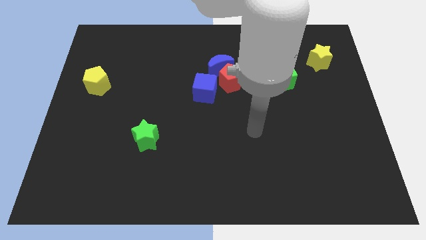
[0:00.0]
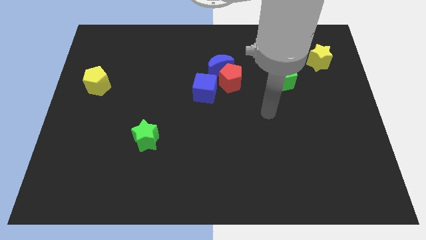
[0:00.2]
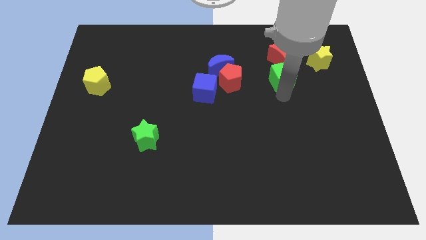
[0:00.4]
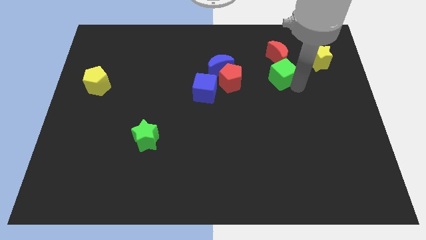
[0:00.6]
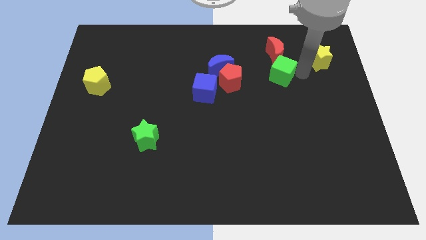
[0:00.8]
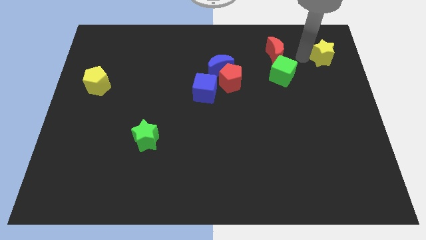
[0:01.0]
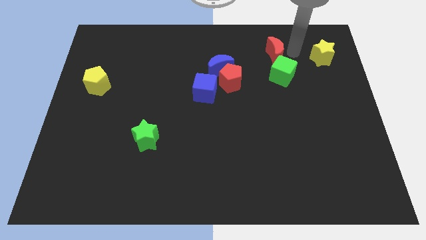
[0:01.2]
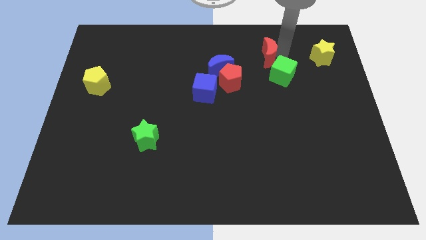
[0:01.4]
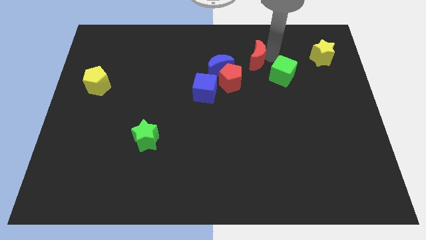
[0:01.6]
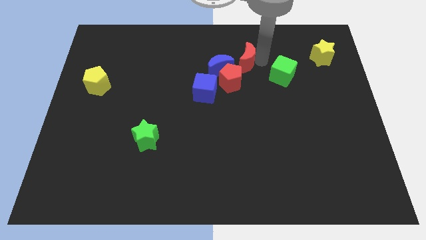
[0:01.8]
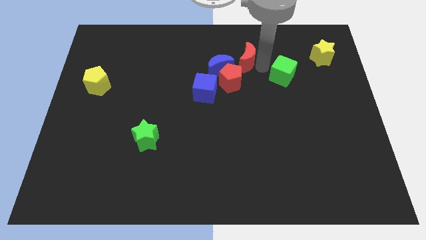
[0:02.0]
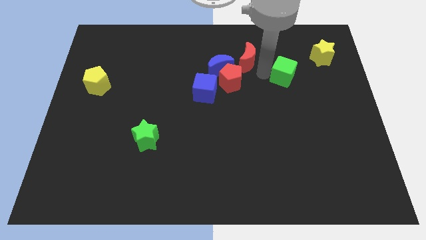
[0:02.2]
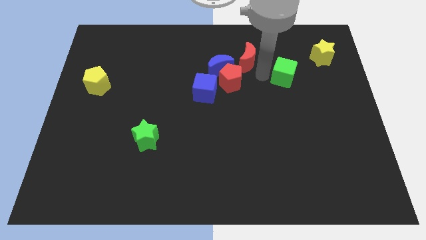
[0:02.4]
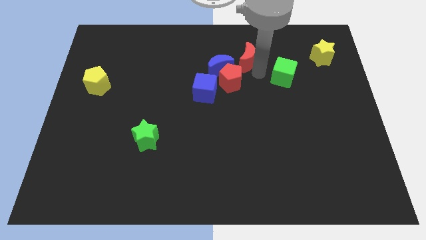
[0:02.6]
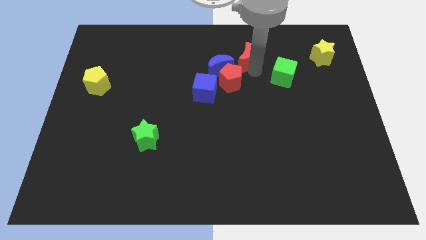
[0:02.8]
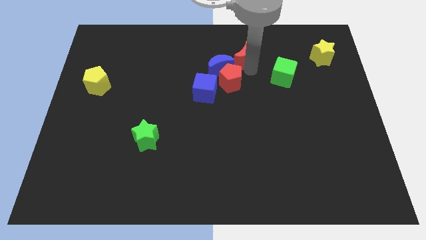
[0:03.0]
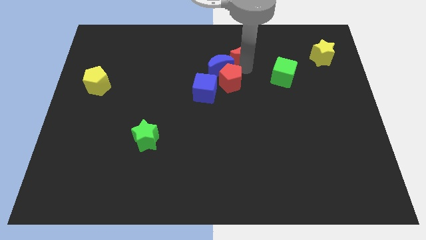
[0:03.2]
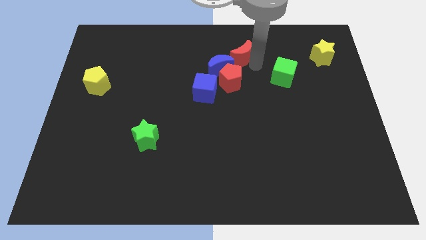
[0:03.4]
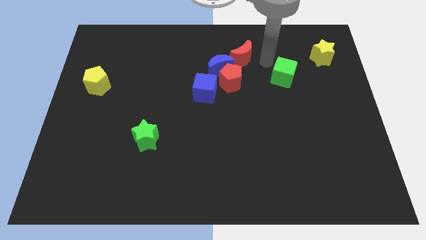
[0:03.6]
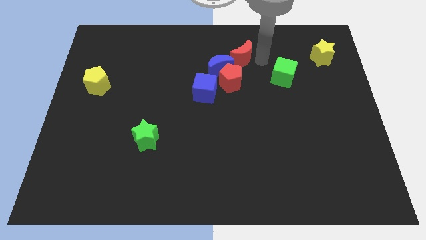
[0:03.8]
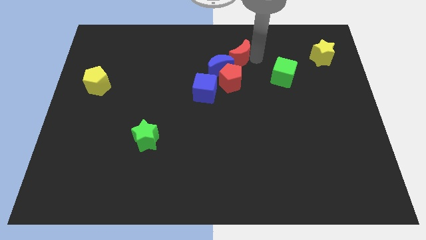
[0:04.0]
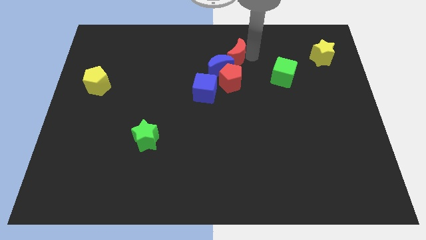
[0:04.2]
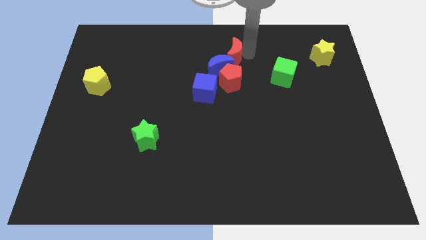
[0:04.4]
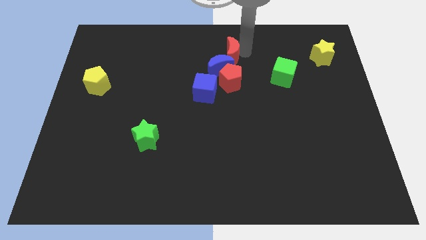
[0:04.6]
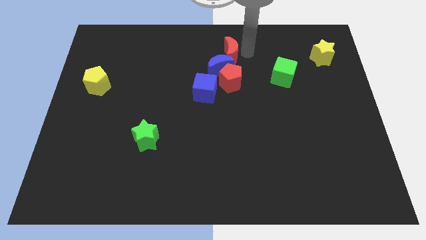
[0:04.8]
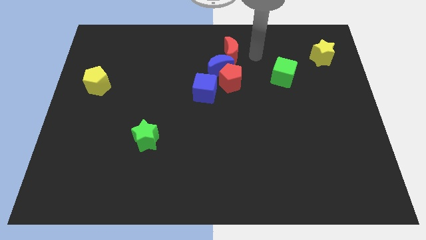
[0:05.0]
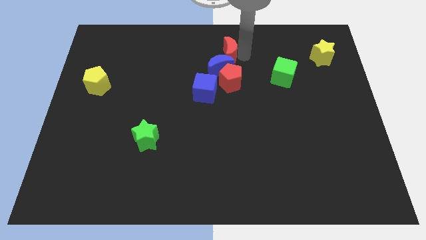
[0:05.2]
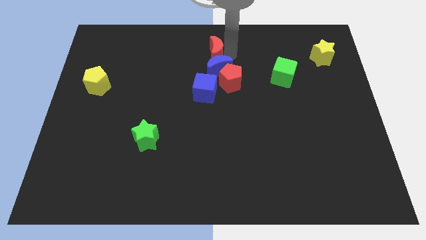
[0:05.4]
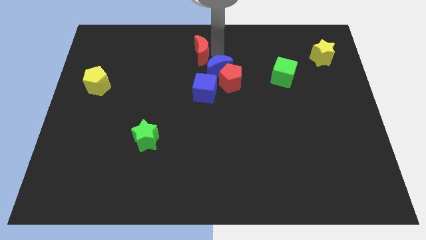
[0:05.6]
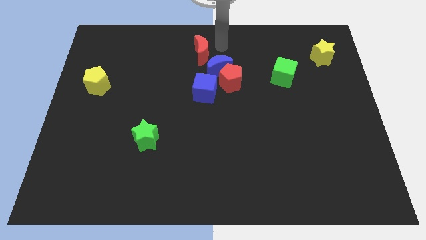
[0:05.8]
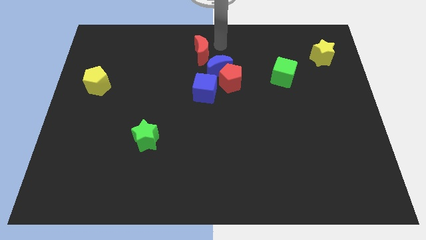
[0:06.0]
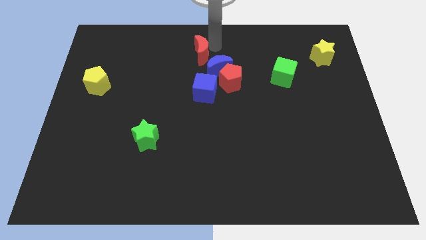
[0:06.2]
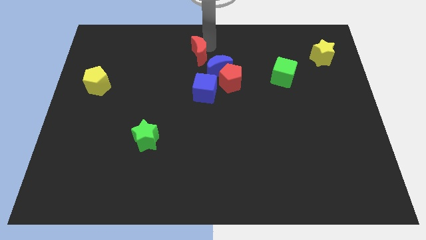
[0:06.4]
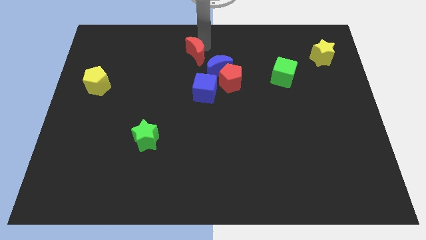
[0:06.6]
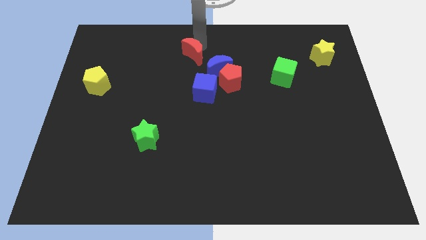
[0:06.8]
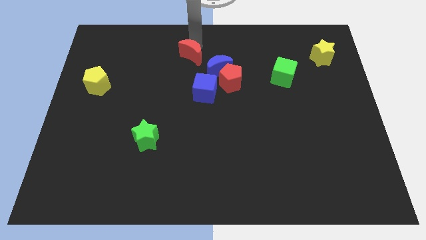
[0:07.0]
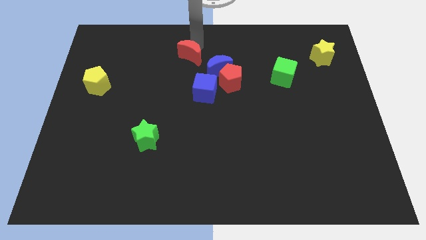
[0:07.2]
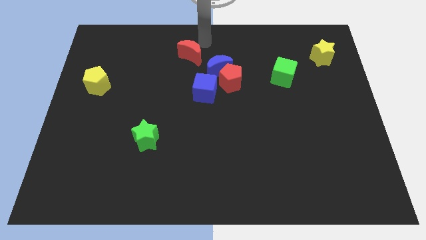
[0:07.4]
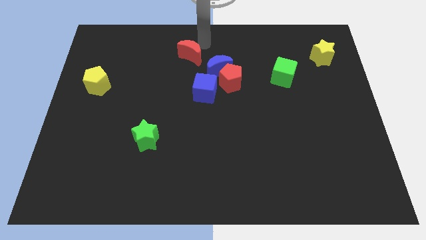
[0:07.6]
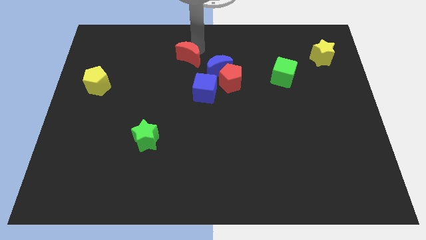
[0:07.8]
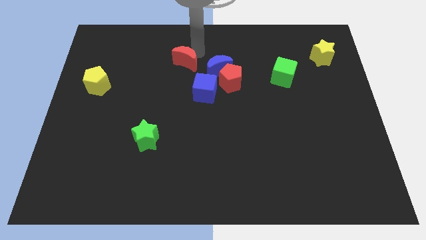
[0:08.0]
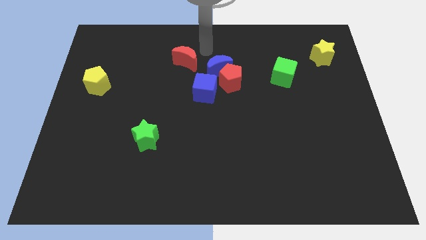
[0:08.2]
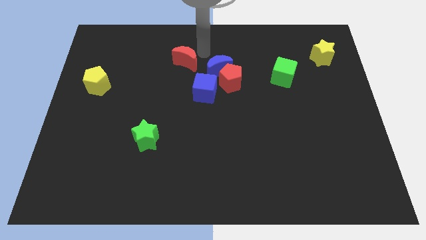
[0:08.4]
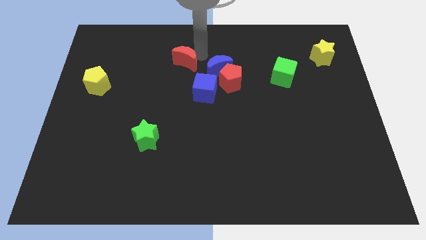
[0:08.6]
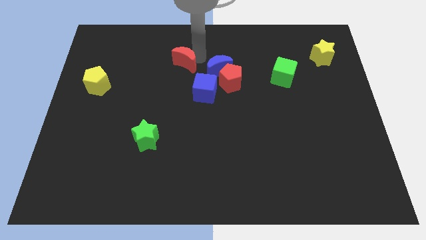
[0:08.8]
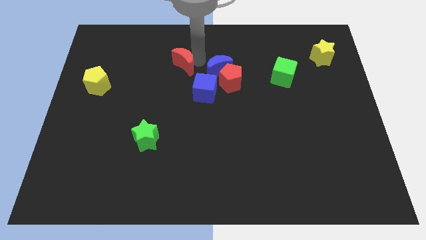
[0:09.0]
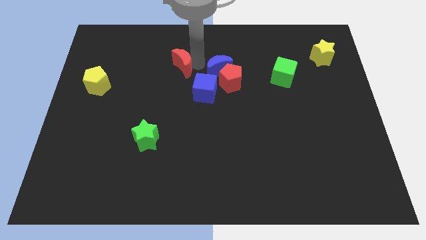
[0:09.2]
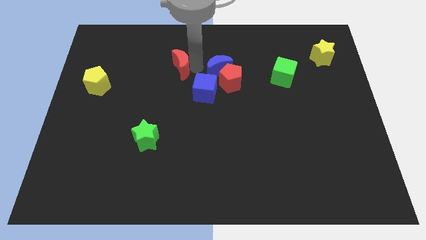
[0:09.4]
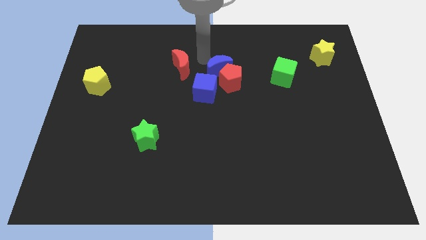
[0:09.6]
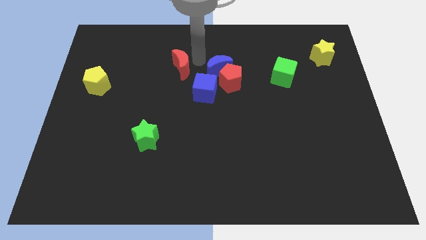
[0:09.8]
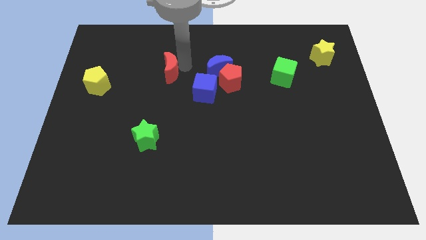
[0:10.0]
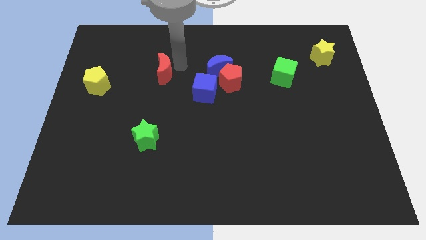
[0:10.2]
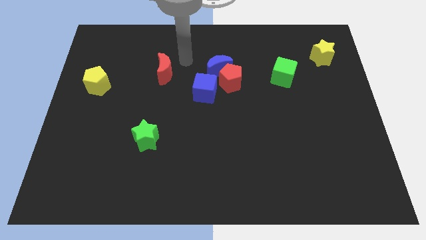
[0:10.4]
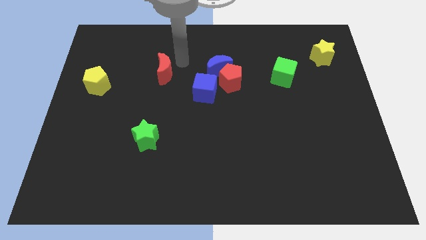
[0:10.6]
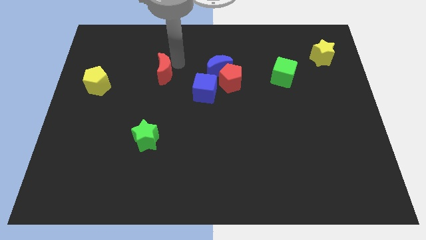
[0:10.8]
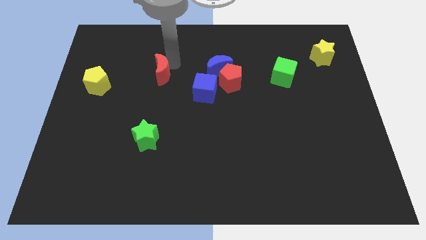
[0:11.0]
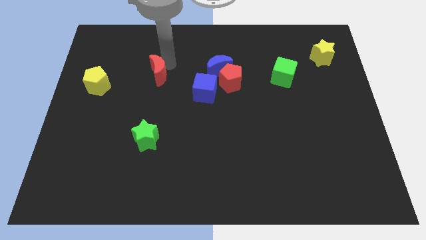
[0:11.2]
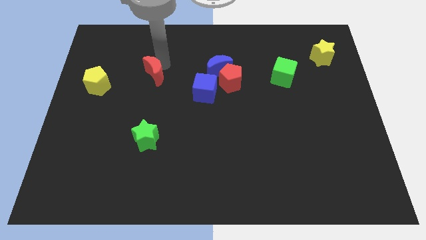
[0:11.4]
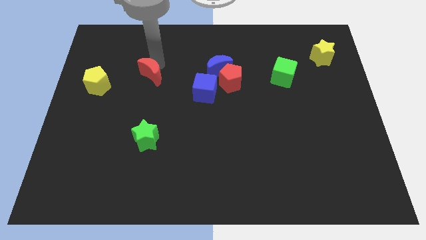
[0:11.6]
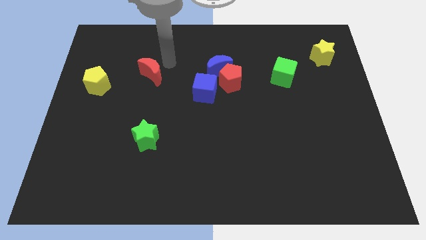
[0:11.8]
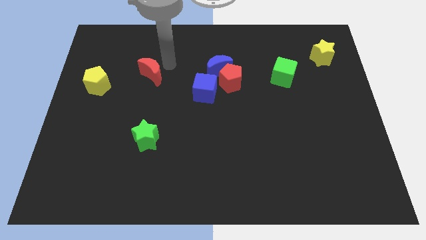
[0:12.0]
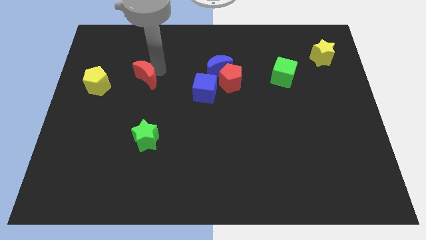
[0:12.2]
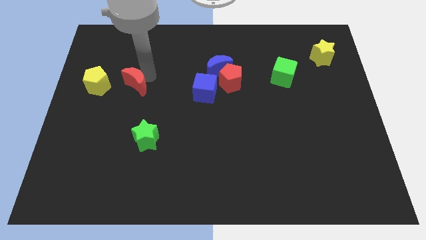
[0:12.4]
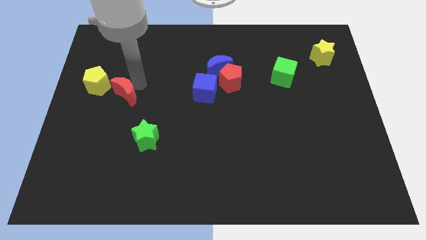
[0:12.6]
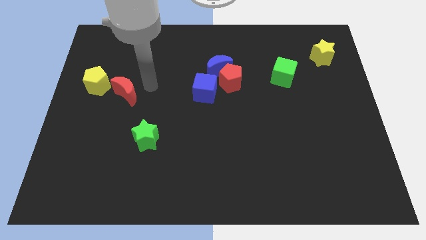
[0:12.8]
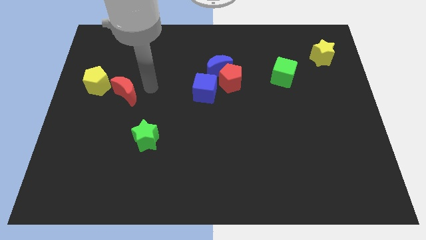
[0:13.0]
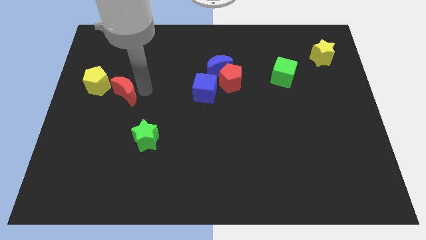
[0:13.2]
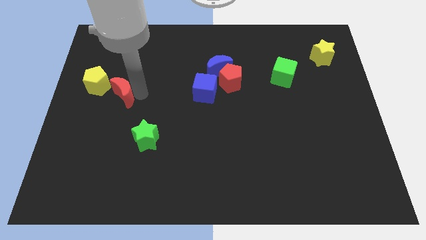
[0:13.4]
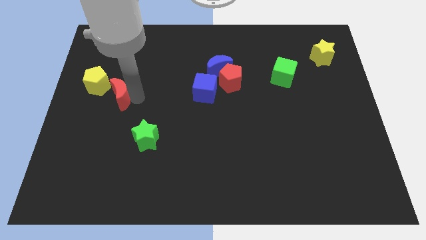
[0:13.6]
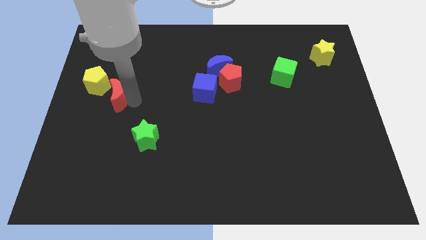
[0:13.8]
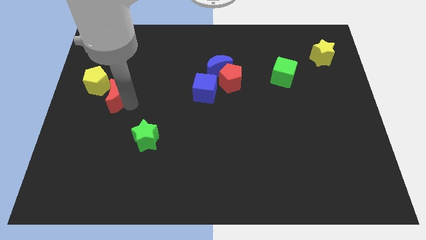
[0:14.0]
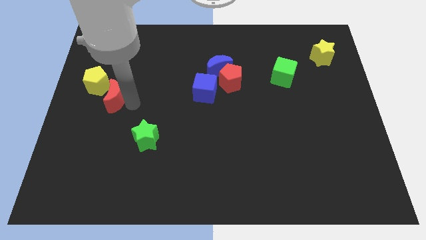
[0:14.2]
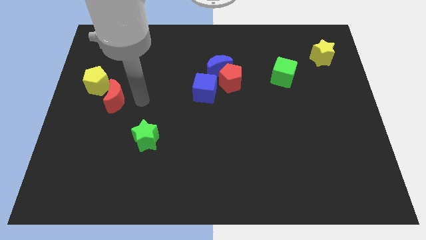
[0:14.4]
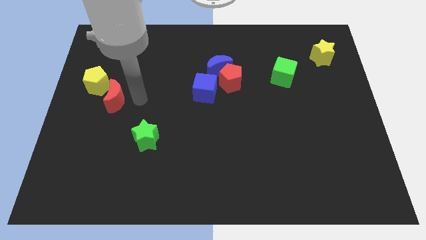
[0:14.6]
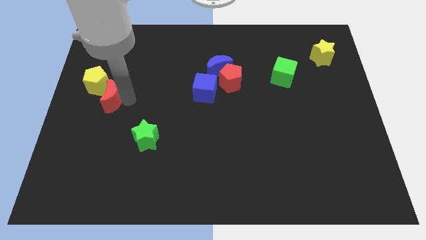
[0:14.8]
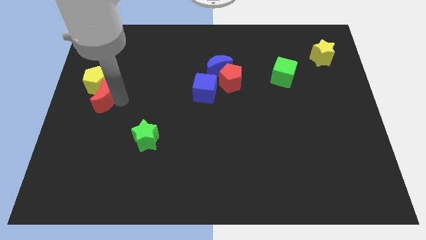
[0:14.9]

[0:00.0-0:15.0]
move the red moon to the left side of the board
